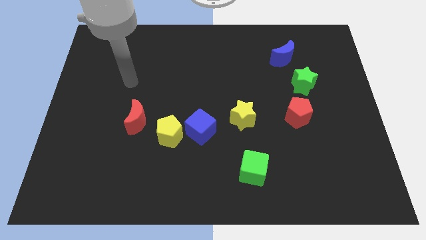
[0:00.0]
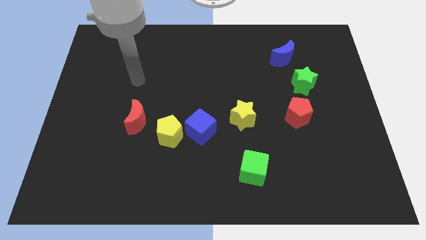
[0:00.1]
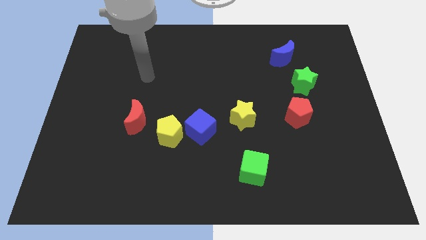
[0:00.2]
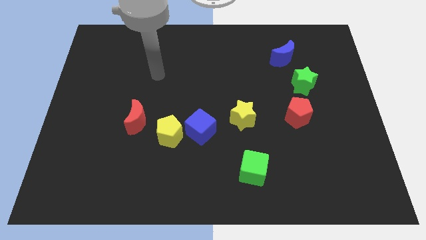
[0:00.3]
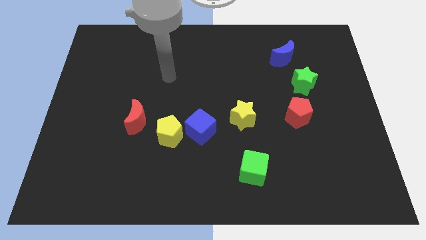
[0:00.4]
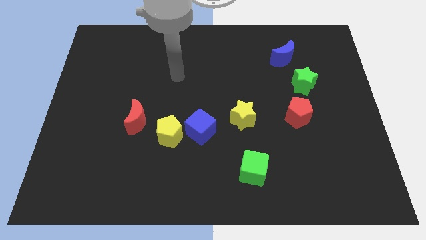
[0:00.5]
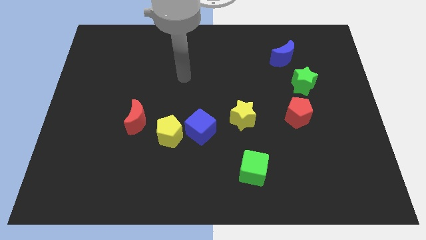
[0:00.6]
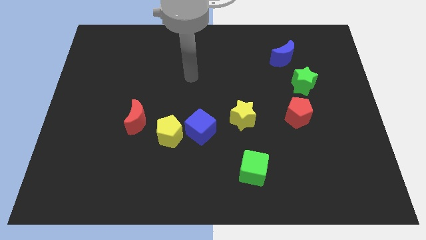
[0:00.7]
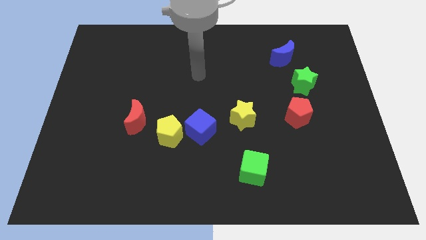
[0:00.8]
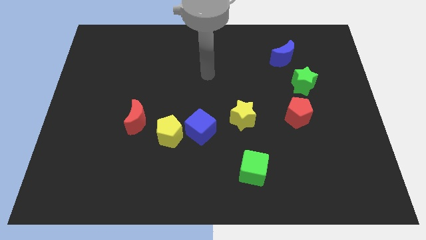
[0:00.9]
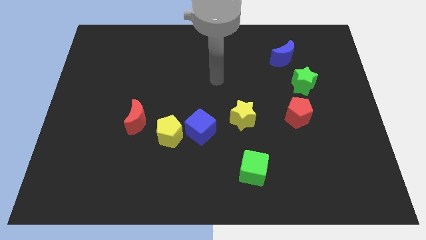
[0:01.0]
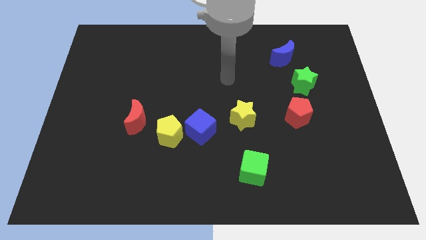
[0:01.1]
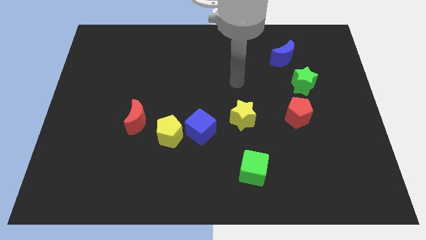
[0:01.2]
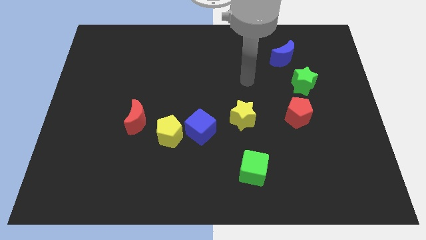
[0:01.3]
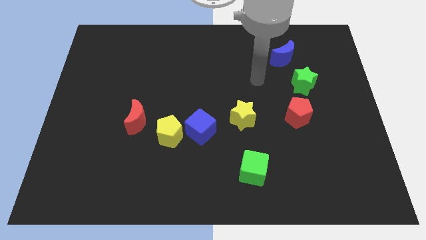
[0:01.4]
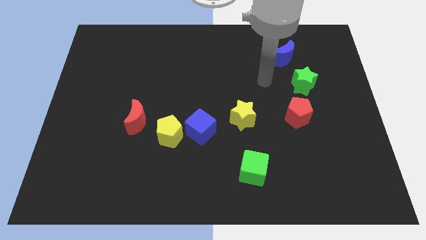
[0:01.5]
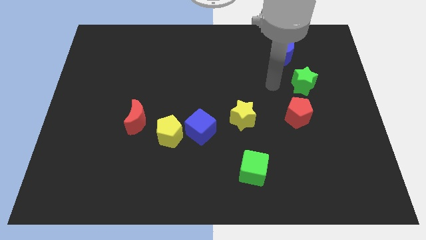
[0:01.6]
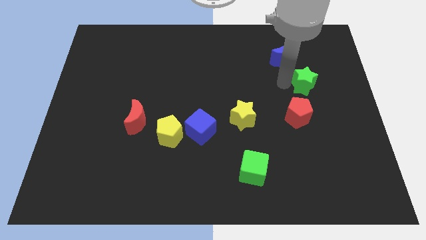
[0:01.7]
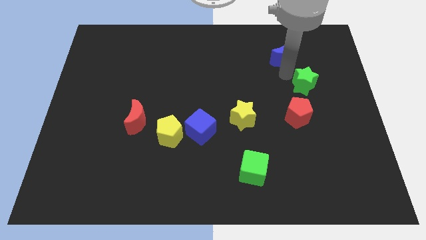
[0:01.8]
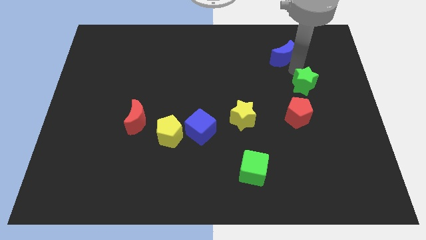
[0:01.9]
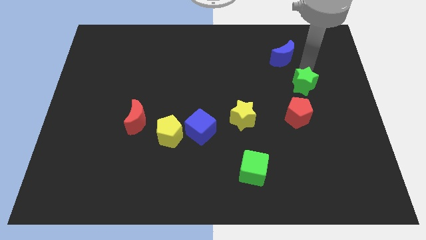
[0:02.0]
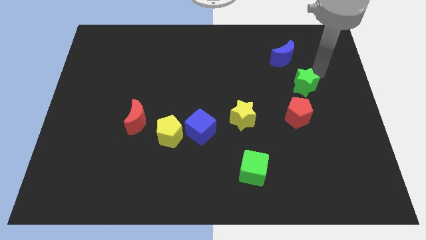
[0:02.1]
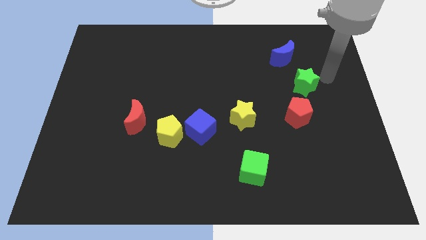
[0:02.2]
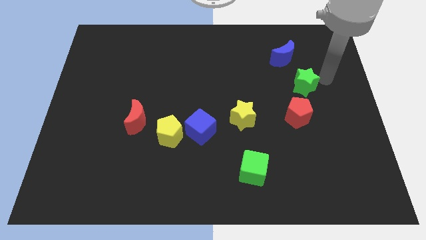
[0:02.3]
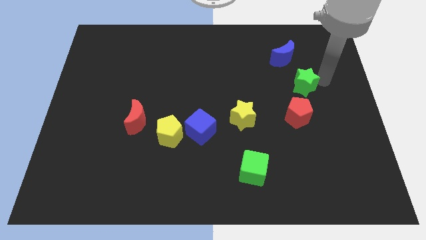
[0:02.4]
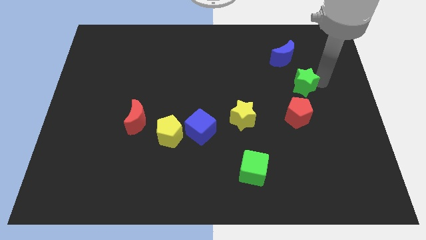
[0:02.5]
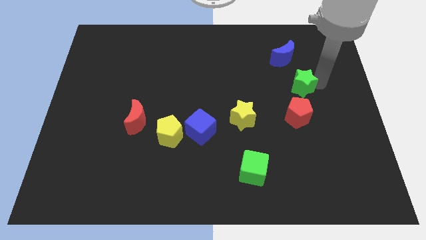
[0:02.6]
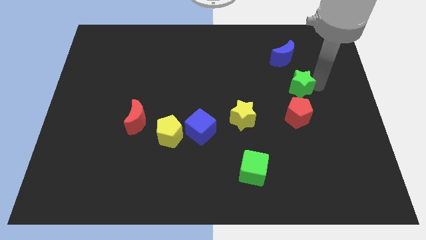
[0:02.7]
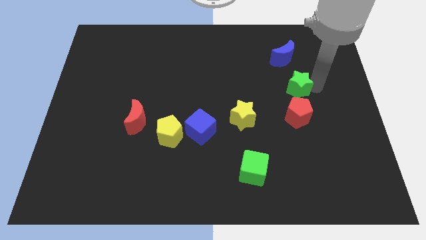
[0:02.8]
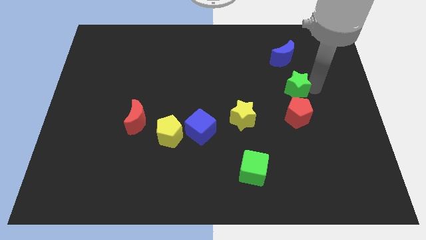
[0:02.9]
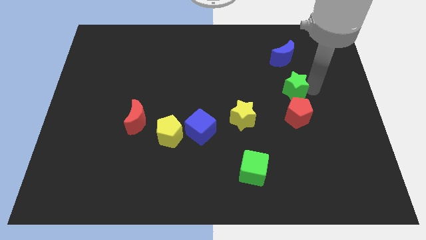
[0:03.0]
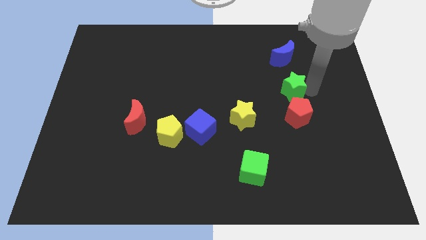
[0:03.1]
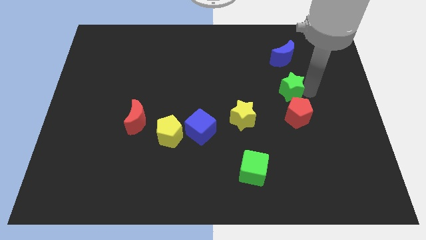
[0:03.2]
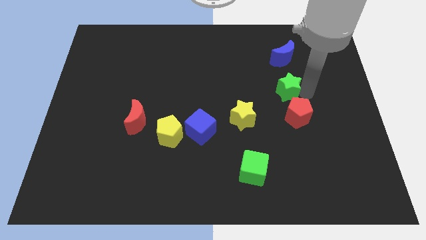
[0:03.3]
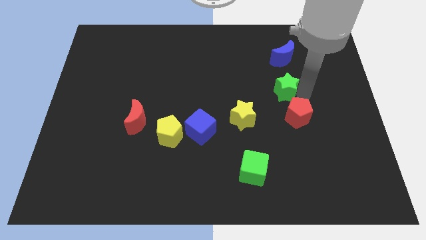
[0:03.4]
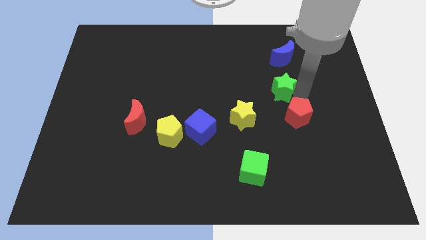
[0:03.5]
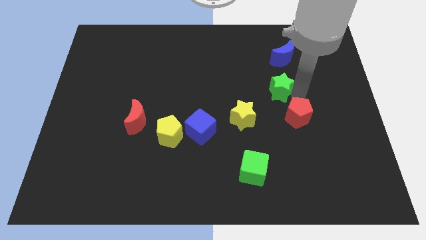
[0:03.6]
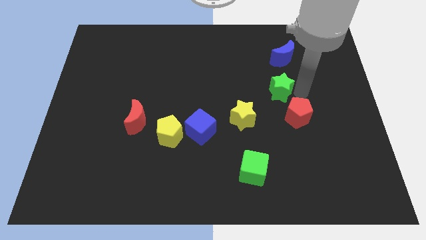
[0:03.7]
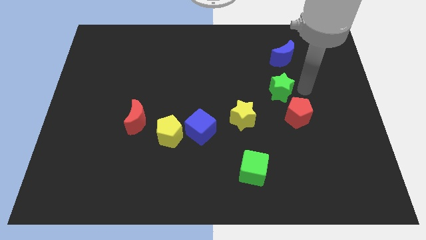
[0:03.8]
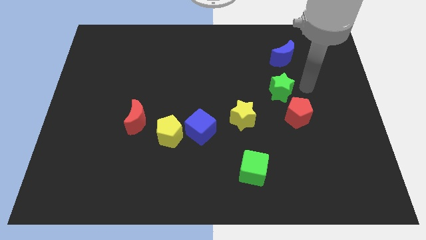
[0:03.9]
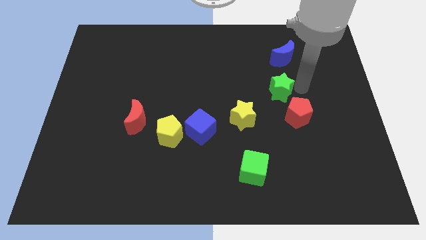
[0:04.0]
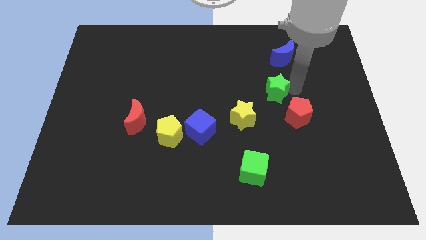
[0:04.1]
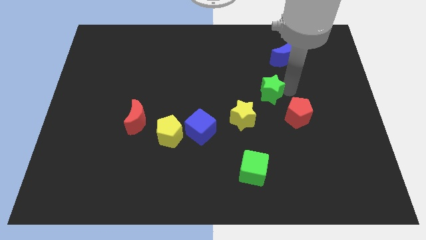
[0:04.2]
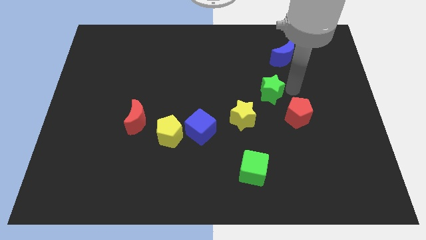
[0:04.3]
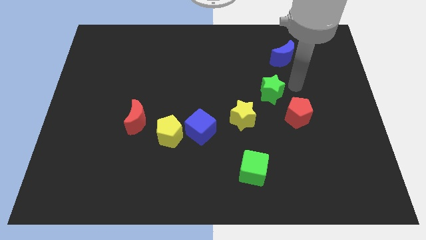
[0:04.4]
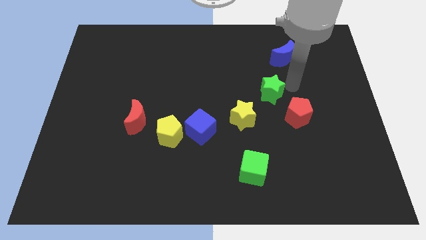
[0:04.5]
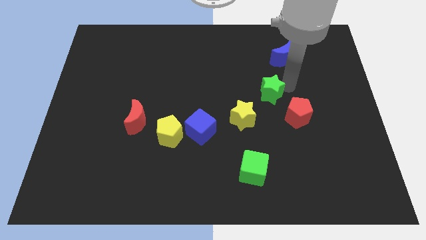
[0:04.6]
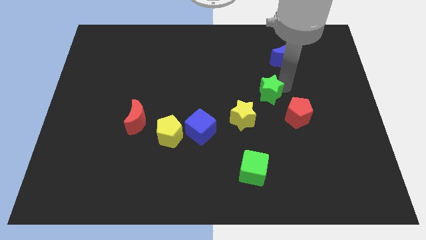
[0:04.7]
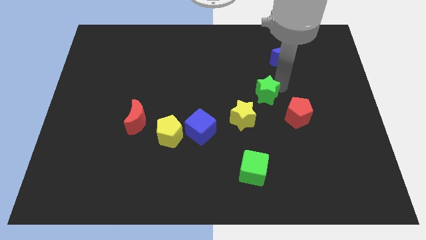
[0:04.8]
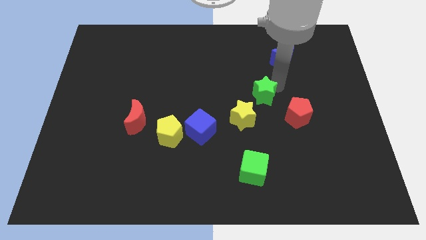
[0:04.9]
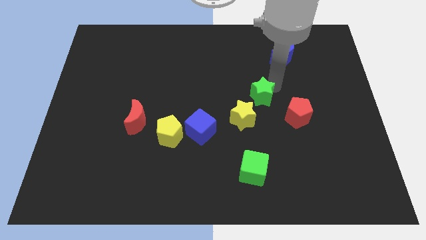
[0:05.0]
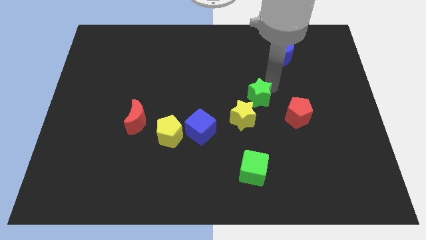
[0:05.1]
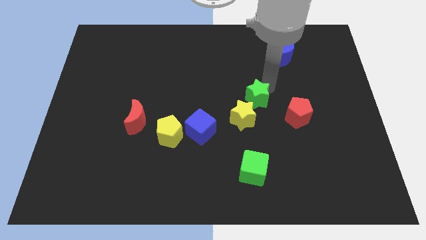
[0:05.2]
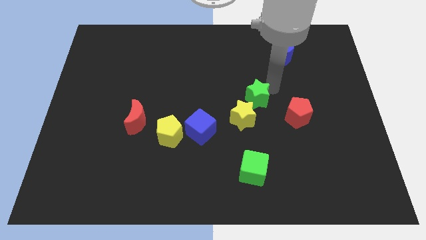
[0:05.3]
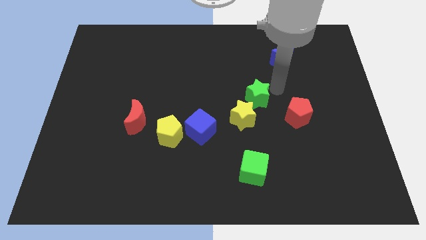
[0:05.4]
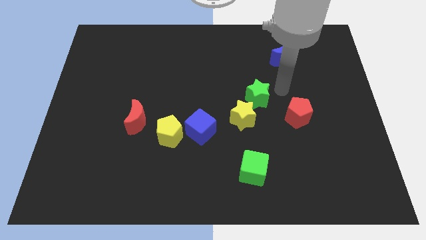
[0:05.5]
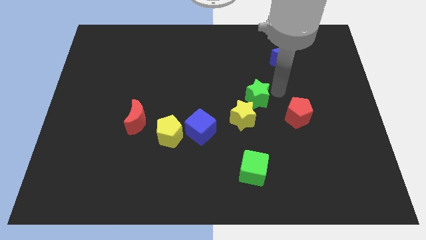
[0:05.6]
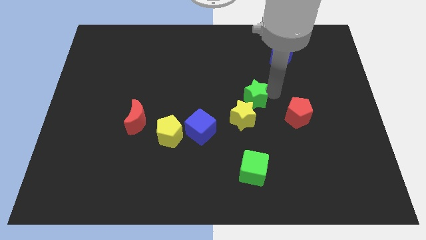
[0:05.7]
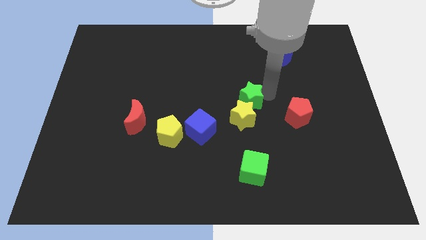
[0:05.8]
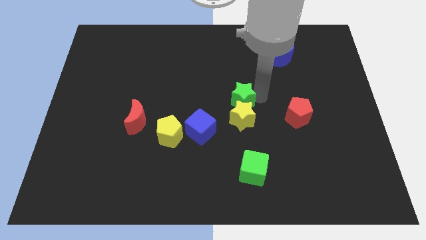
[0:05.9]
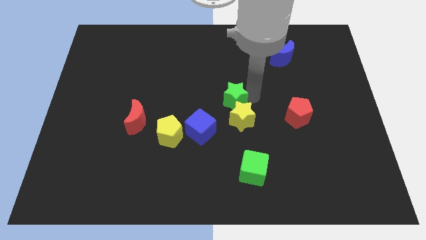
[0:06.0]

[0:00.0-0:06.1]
put the green star diagonally up and to the right of the blue cube
